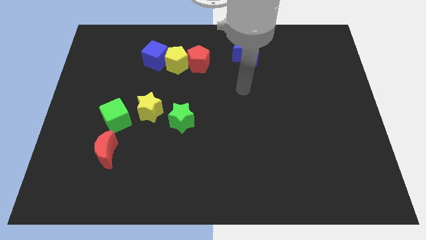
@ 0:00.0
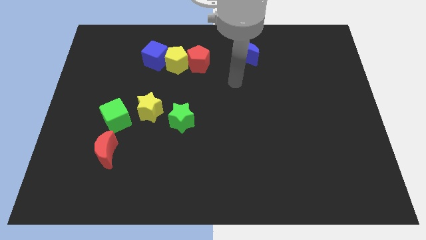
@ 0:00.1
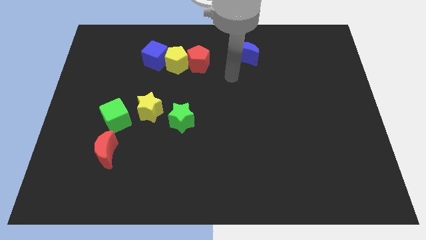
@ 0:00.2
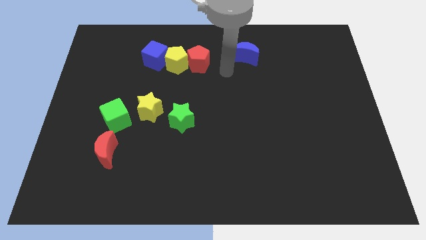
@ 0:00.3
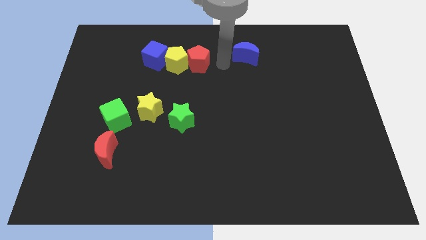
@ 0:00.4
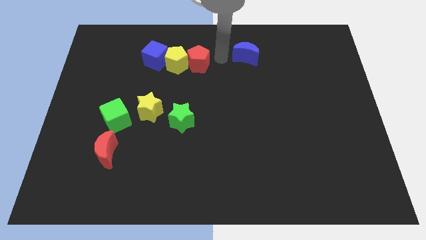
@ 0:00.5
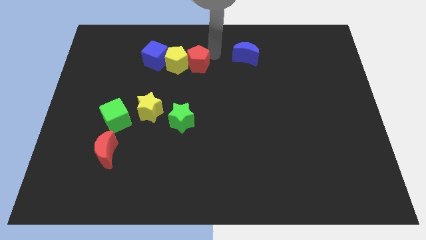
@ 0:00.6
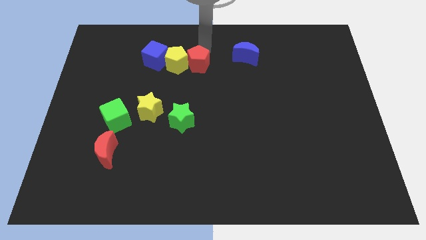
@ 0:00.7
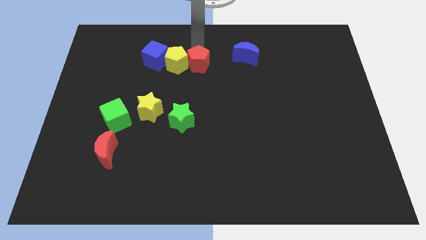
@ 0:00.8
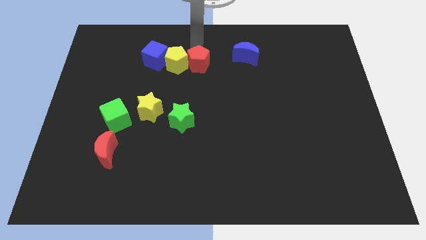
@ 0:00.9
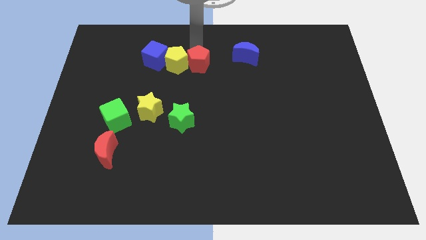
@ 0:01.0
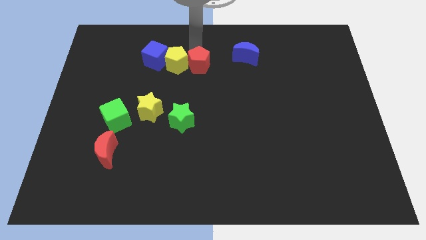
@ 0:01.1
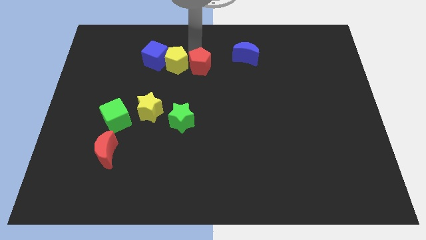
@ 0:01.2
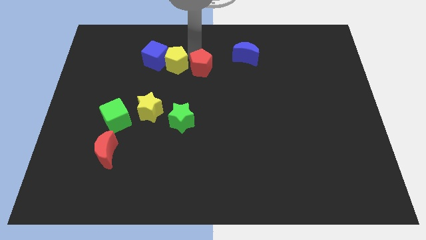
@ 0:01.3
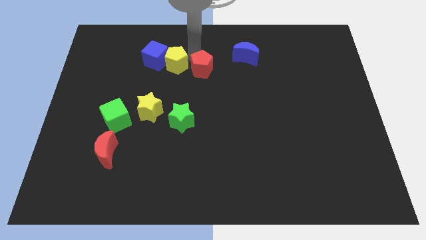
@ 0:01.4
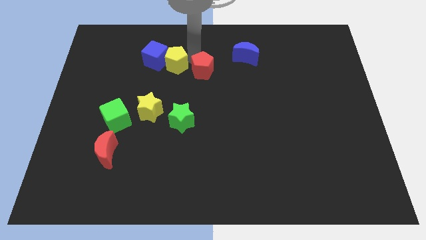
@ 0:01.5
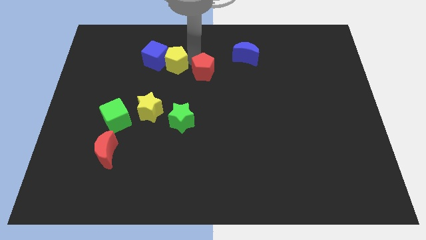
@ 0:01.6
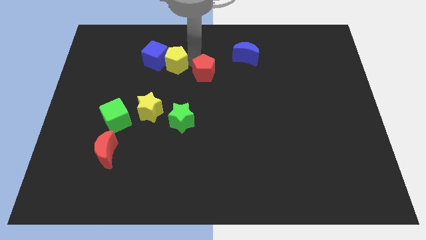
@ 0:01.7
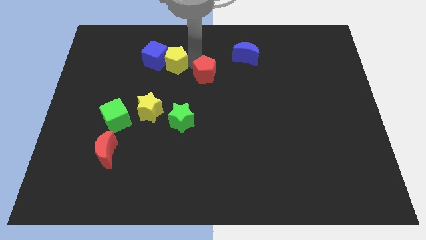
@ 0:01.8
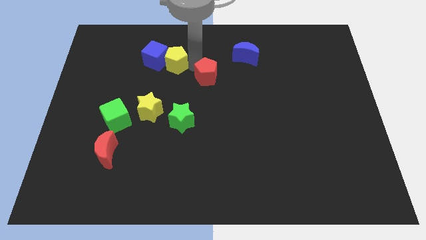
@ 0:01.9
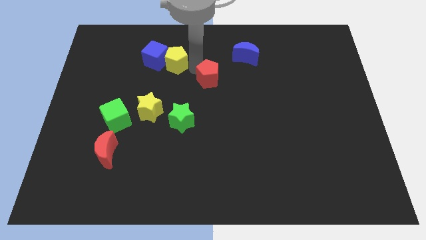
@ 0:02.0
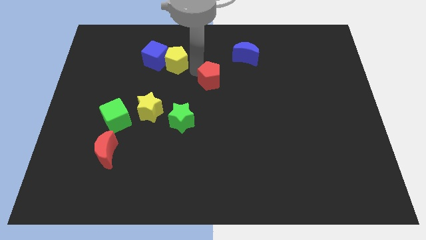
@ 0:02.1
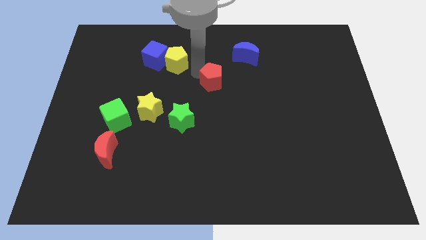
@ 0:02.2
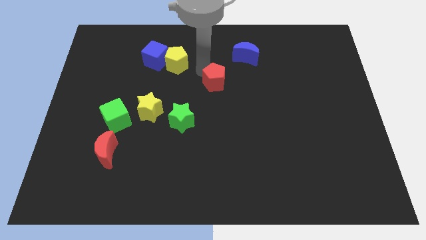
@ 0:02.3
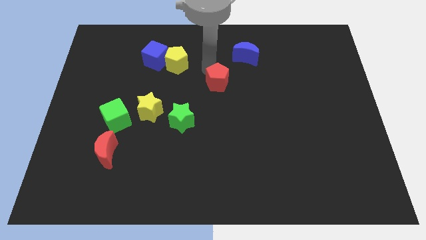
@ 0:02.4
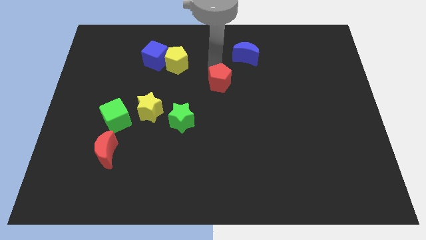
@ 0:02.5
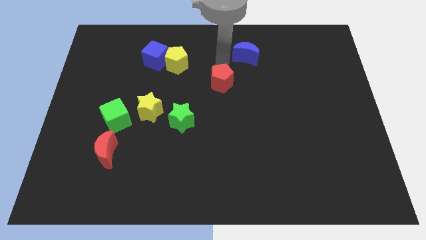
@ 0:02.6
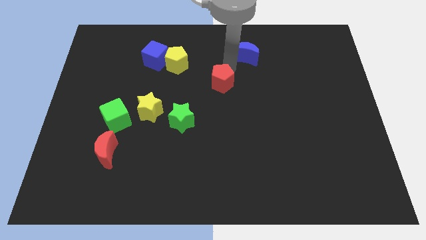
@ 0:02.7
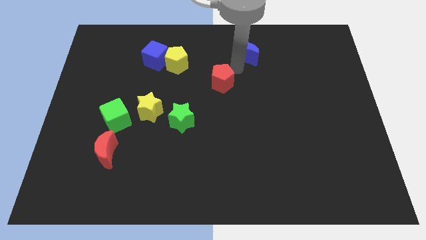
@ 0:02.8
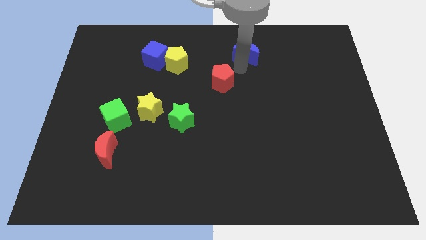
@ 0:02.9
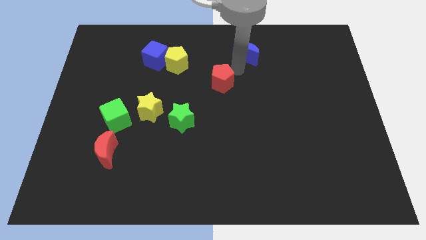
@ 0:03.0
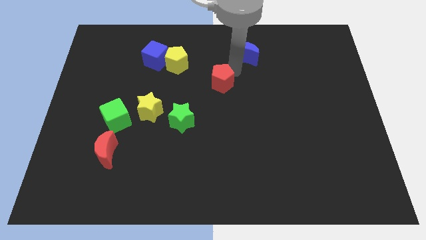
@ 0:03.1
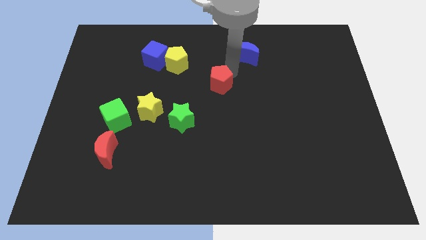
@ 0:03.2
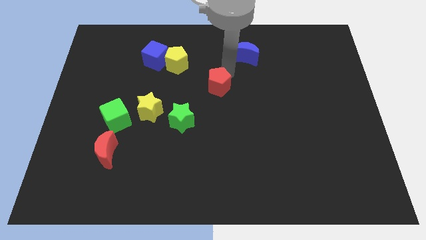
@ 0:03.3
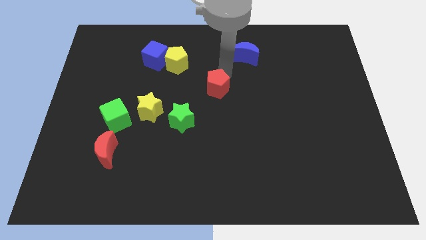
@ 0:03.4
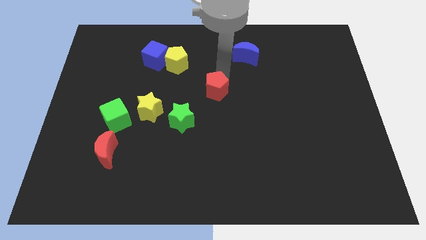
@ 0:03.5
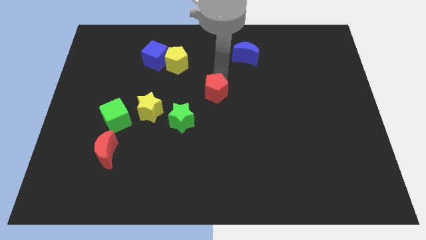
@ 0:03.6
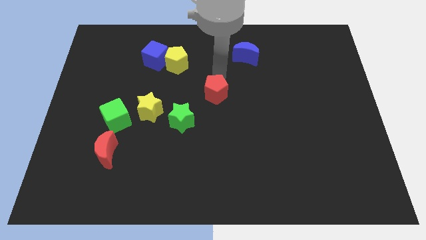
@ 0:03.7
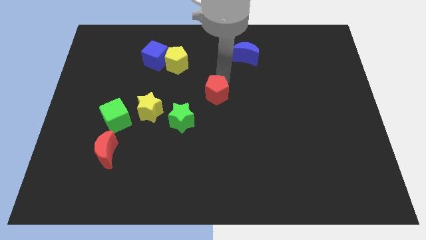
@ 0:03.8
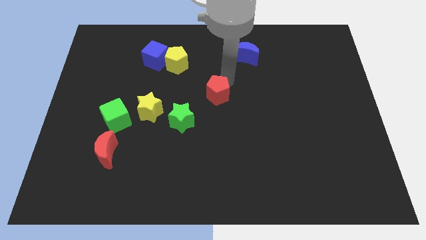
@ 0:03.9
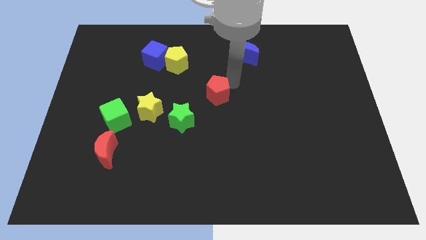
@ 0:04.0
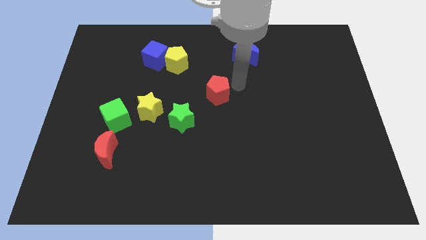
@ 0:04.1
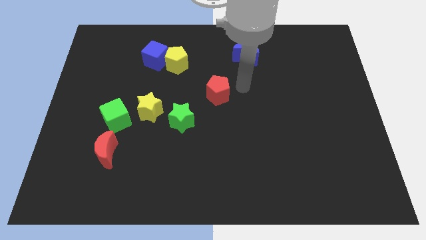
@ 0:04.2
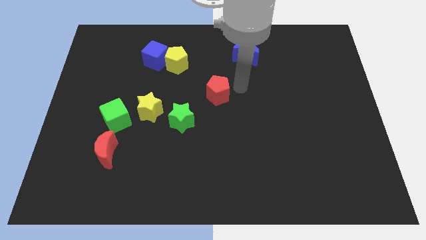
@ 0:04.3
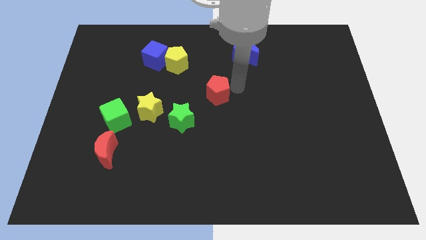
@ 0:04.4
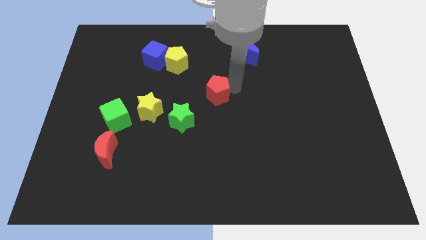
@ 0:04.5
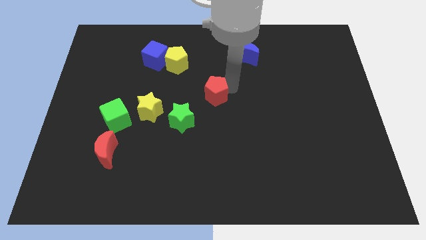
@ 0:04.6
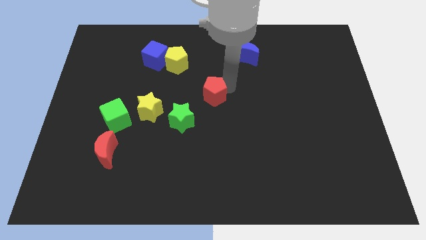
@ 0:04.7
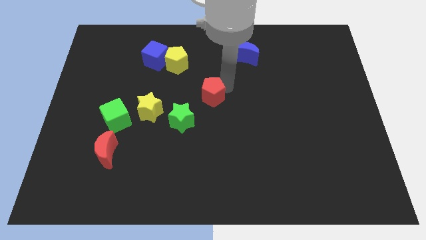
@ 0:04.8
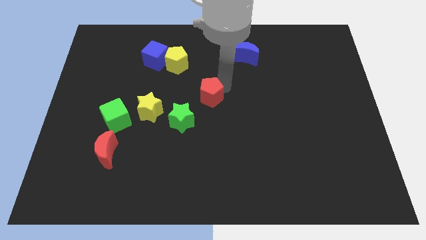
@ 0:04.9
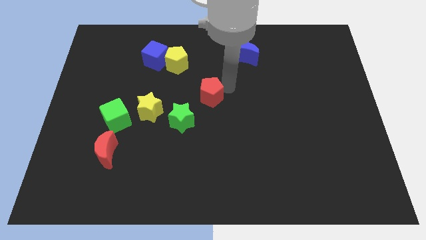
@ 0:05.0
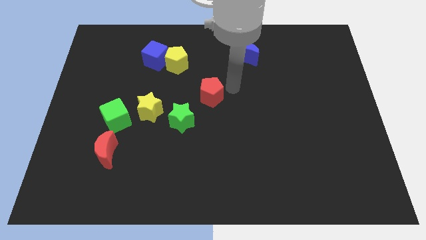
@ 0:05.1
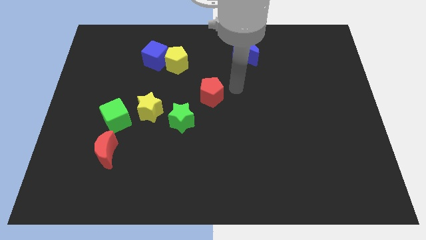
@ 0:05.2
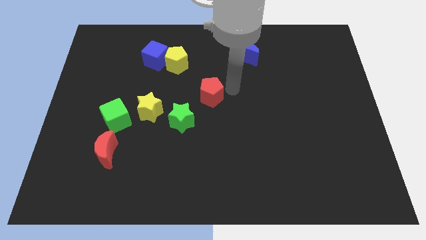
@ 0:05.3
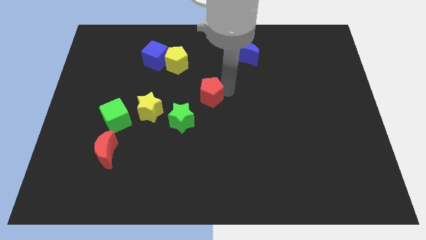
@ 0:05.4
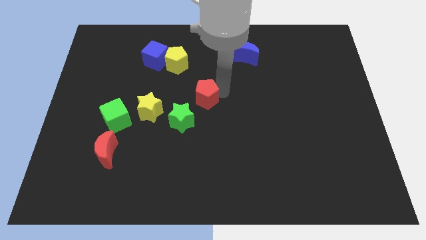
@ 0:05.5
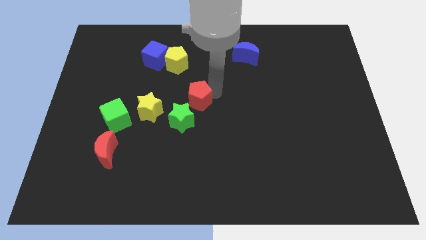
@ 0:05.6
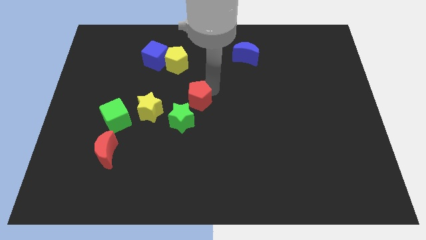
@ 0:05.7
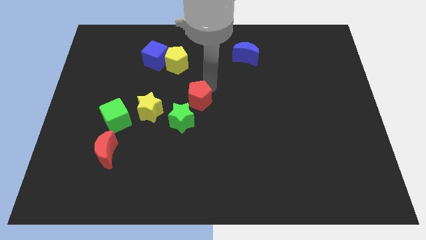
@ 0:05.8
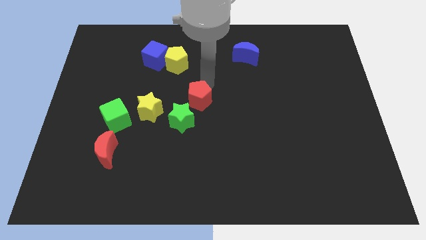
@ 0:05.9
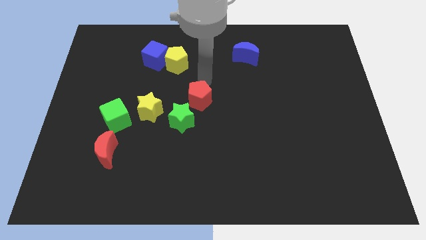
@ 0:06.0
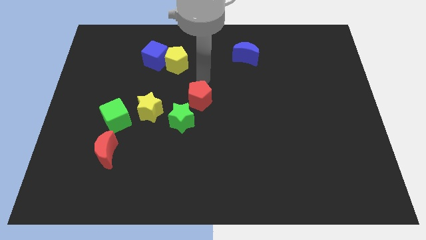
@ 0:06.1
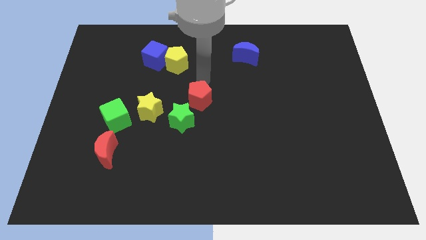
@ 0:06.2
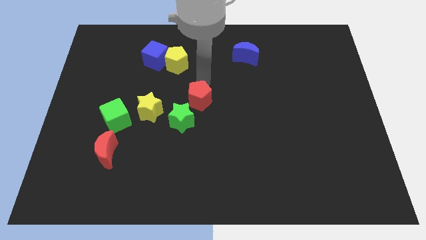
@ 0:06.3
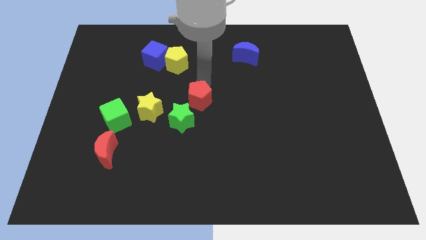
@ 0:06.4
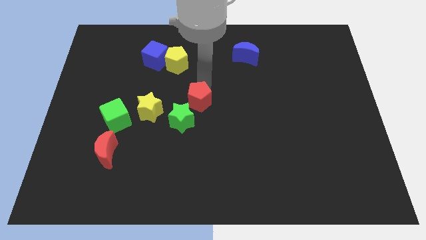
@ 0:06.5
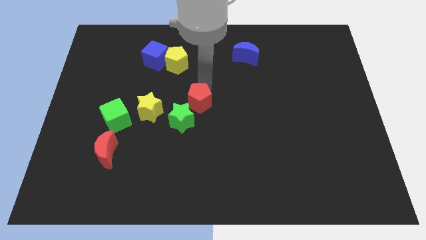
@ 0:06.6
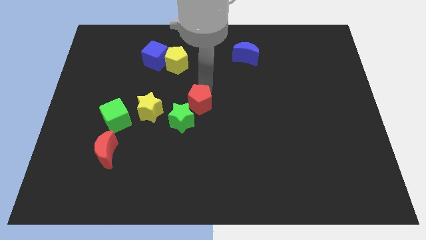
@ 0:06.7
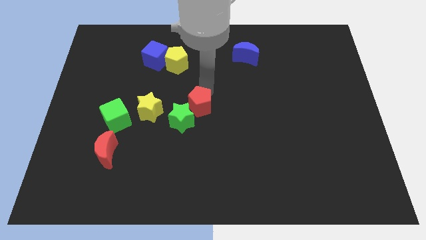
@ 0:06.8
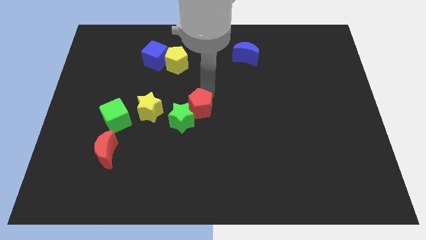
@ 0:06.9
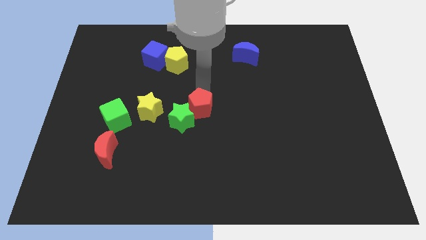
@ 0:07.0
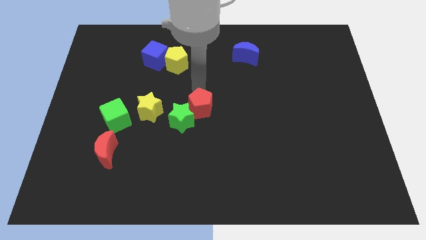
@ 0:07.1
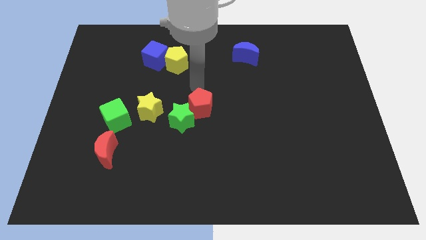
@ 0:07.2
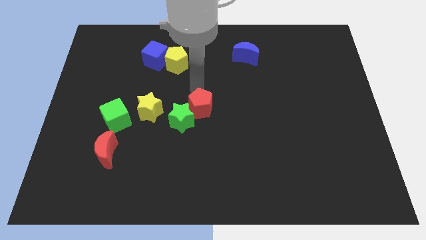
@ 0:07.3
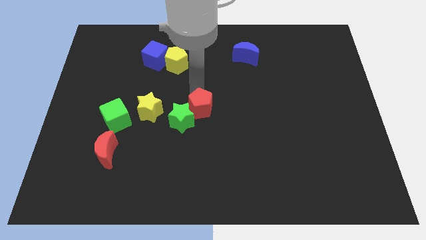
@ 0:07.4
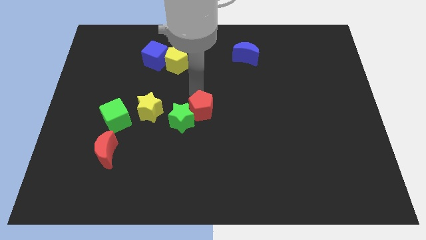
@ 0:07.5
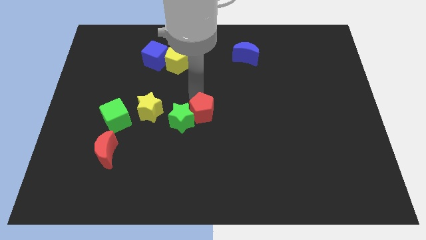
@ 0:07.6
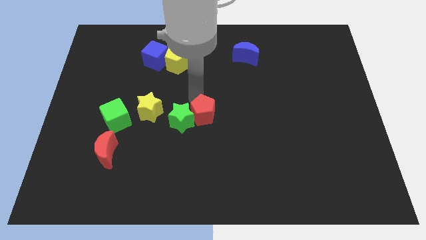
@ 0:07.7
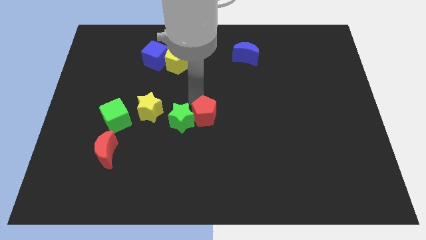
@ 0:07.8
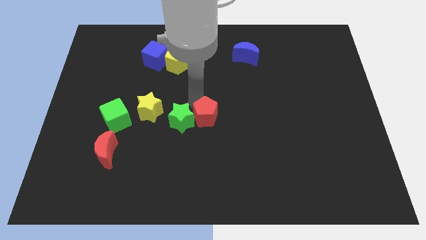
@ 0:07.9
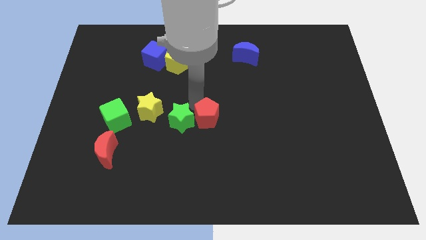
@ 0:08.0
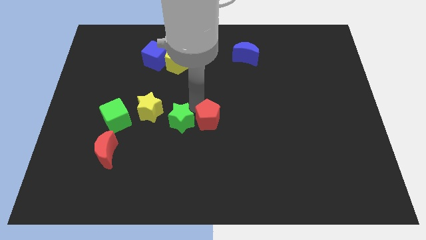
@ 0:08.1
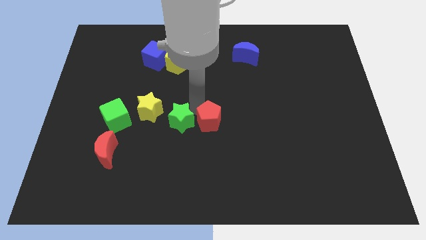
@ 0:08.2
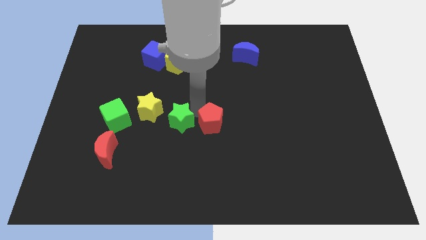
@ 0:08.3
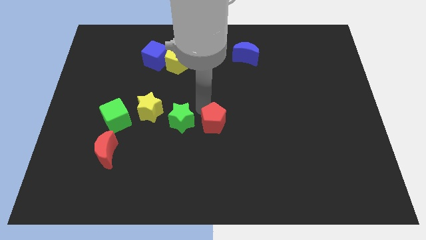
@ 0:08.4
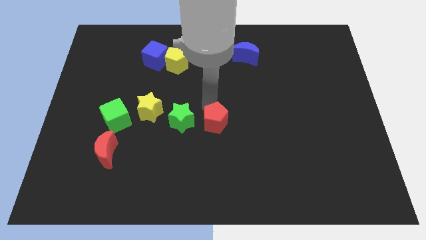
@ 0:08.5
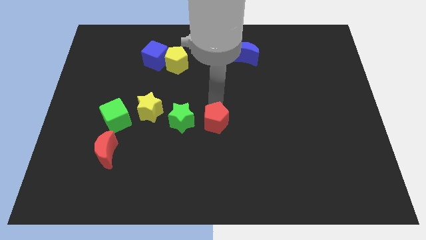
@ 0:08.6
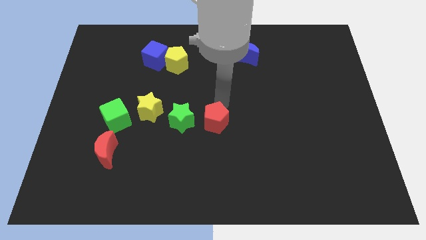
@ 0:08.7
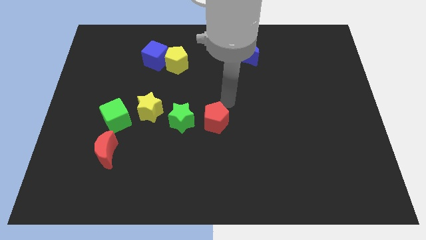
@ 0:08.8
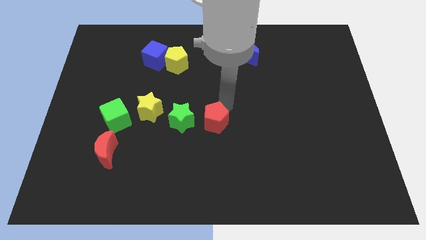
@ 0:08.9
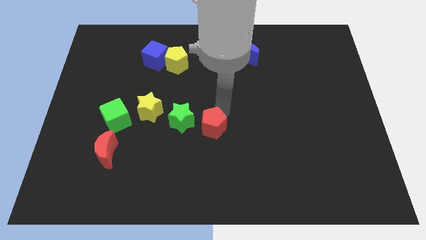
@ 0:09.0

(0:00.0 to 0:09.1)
slide the red pentagon downwards
